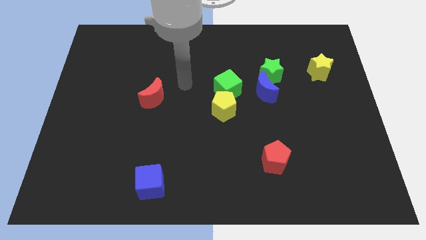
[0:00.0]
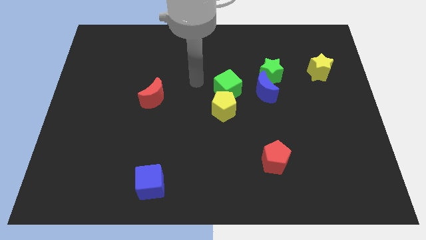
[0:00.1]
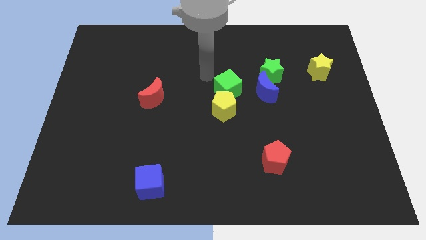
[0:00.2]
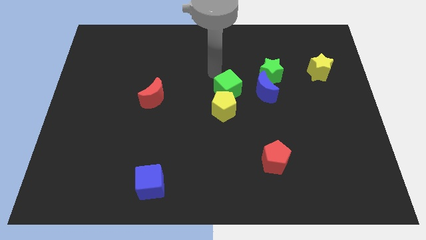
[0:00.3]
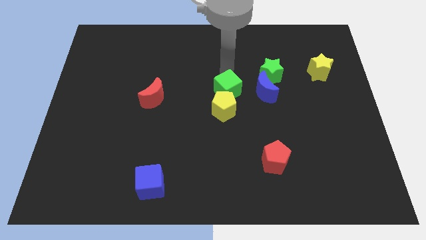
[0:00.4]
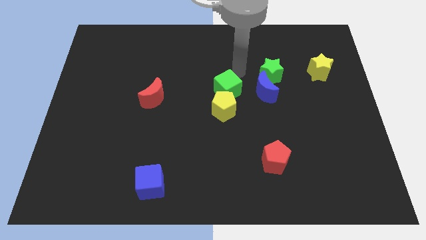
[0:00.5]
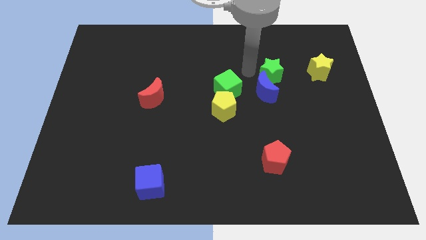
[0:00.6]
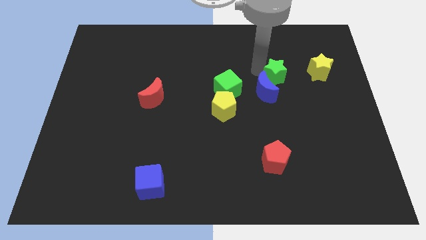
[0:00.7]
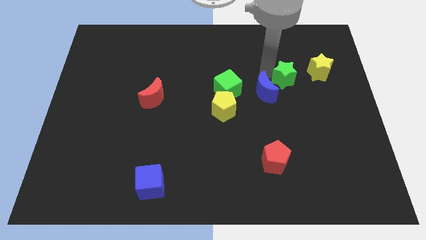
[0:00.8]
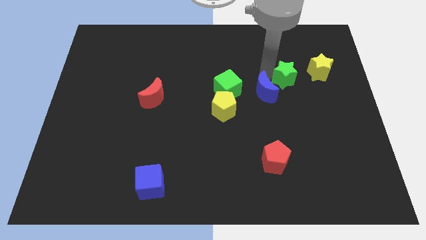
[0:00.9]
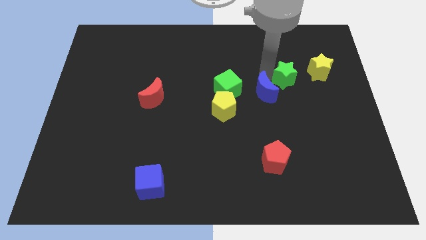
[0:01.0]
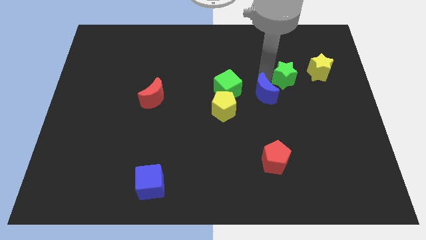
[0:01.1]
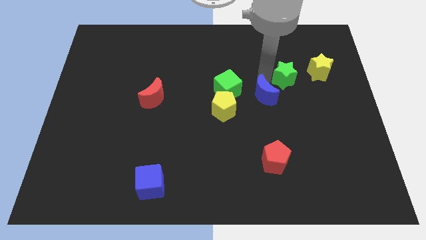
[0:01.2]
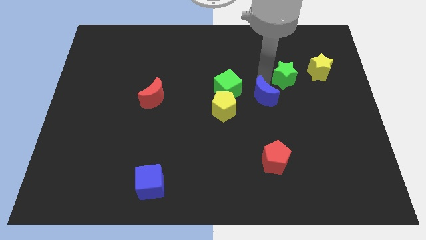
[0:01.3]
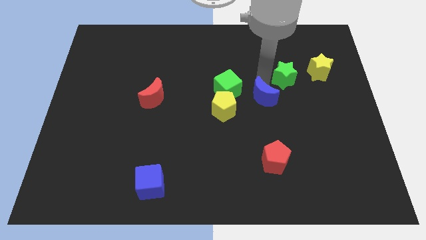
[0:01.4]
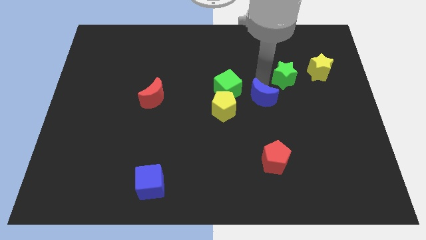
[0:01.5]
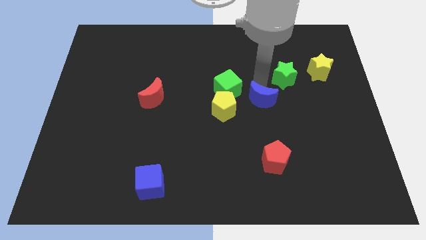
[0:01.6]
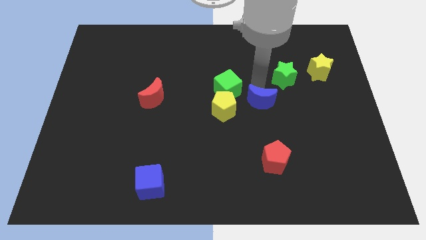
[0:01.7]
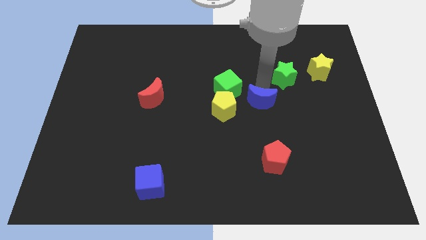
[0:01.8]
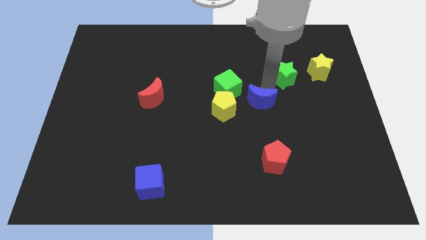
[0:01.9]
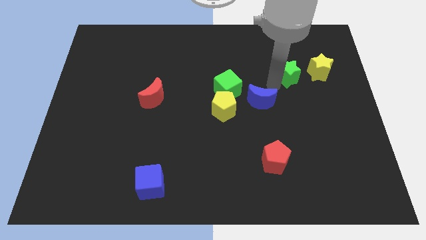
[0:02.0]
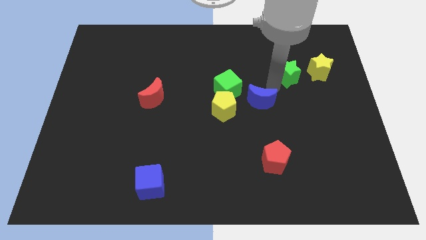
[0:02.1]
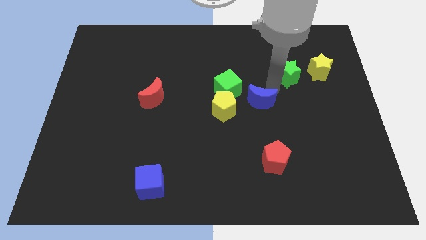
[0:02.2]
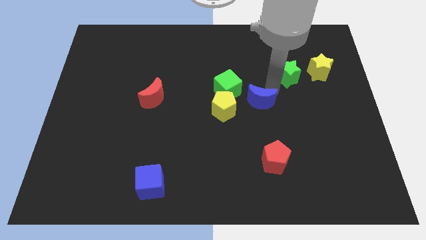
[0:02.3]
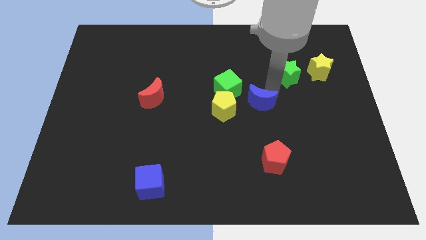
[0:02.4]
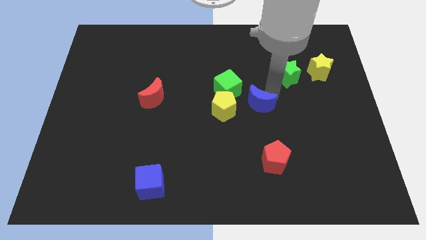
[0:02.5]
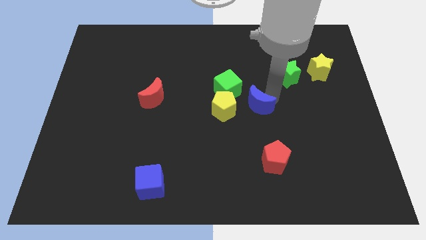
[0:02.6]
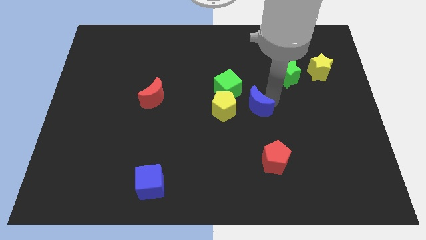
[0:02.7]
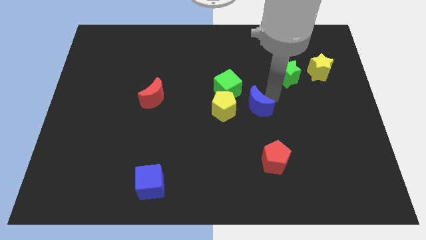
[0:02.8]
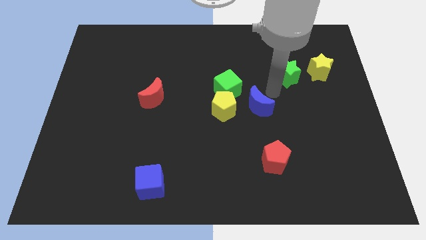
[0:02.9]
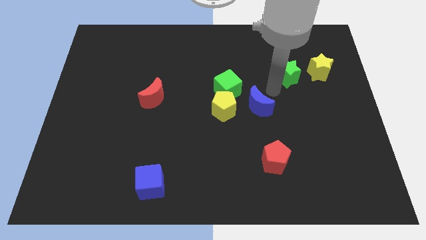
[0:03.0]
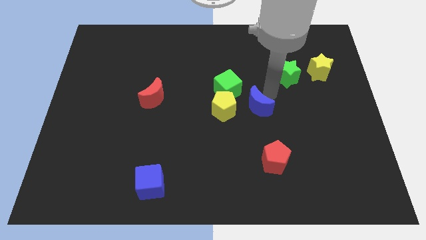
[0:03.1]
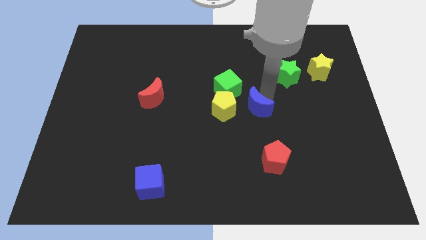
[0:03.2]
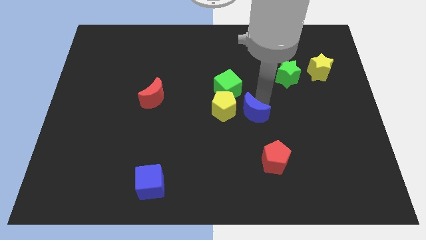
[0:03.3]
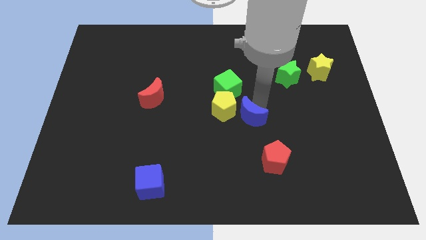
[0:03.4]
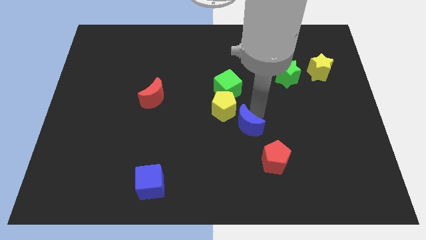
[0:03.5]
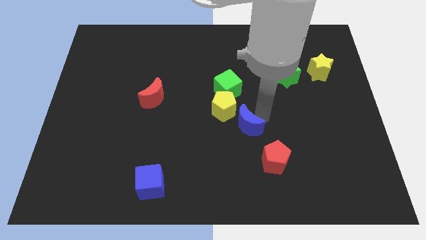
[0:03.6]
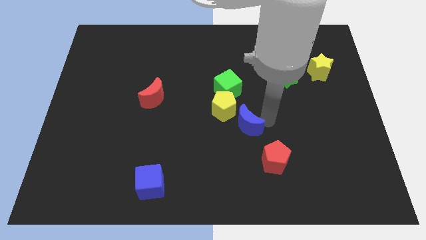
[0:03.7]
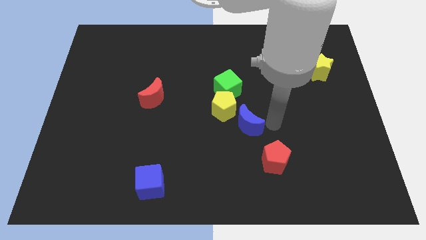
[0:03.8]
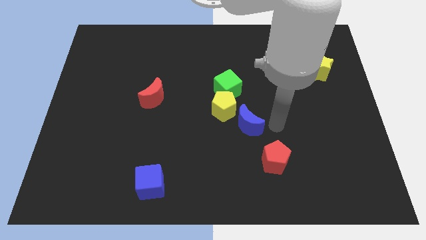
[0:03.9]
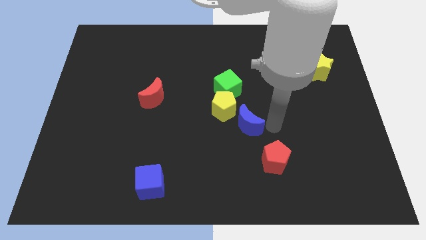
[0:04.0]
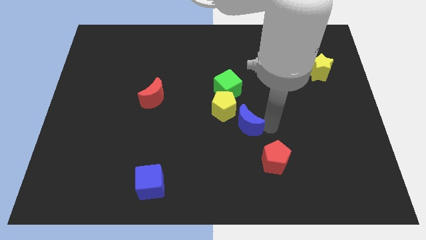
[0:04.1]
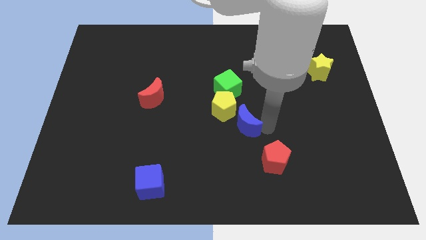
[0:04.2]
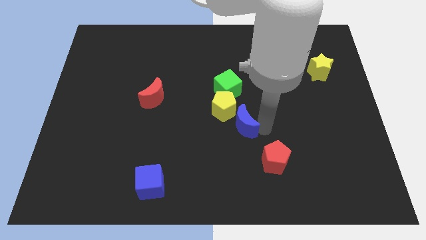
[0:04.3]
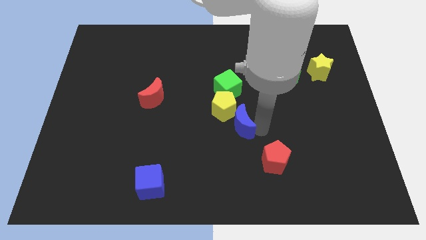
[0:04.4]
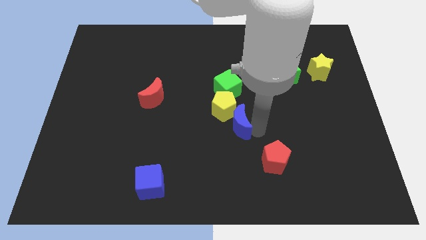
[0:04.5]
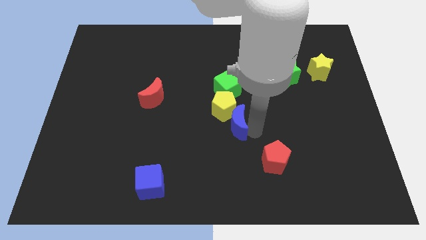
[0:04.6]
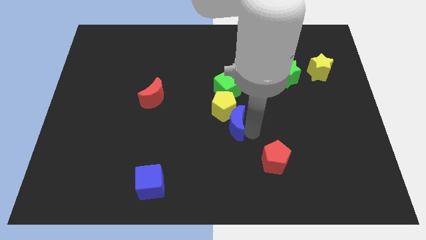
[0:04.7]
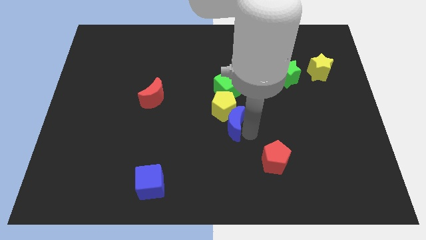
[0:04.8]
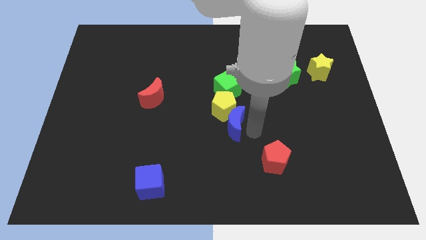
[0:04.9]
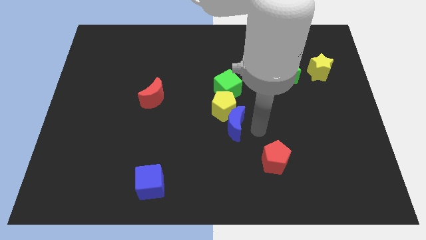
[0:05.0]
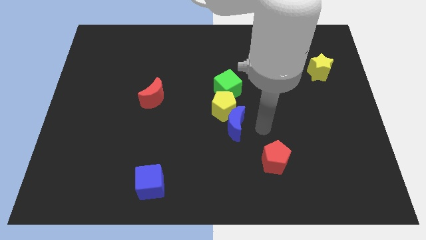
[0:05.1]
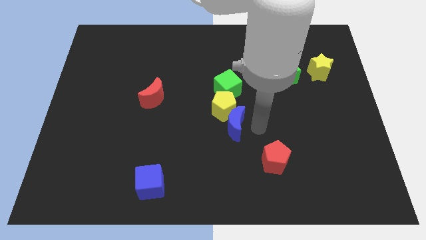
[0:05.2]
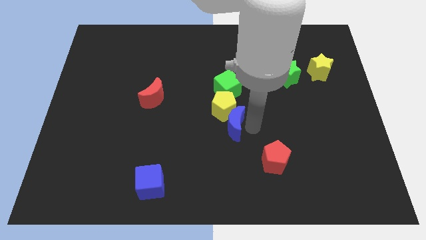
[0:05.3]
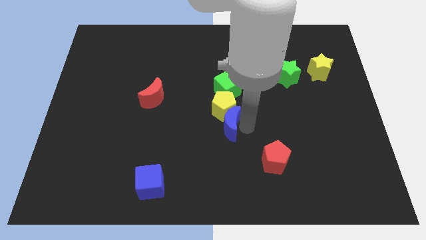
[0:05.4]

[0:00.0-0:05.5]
push the blue moon diagonally down and to the left of the yellow pentagon

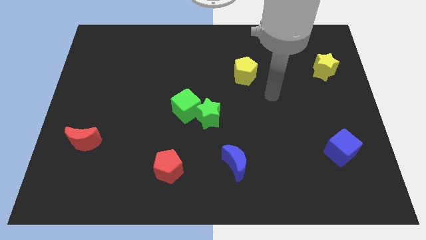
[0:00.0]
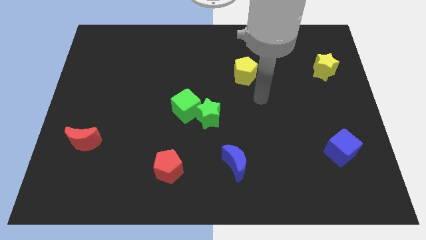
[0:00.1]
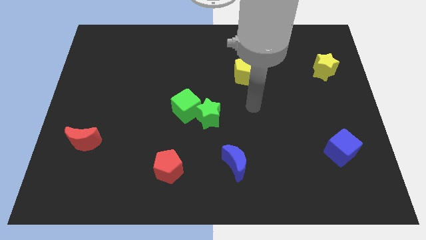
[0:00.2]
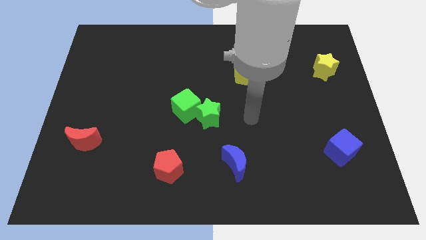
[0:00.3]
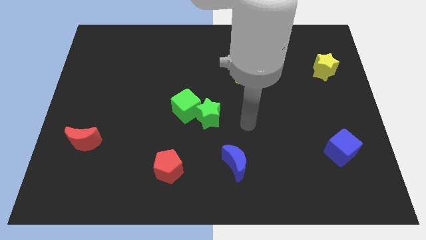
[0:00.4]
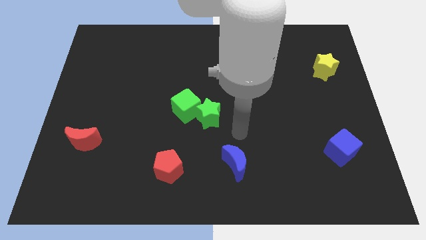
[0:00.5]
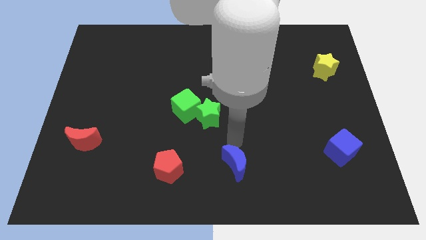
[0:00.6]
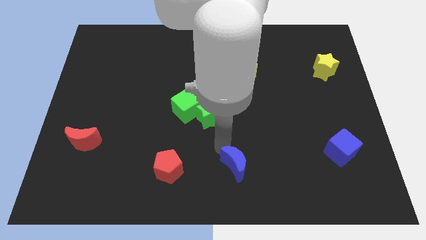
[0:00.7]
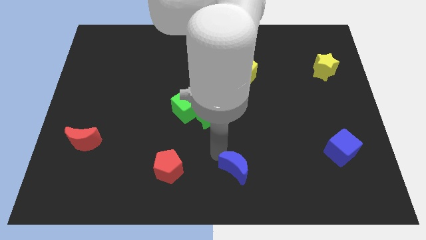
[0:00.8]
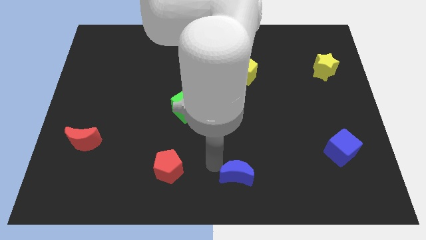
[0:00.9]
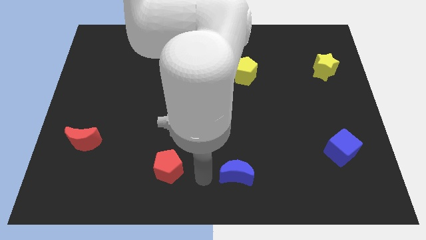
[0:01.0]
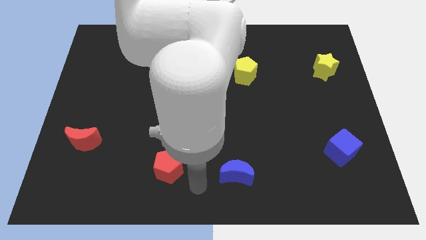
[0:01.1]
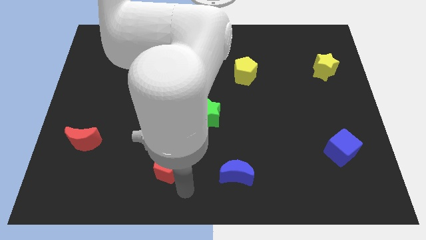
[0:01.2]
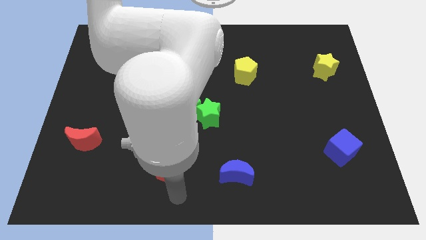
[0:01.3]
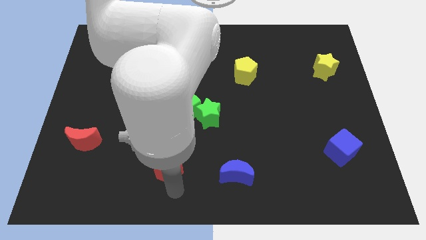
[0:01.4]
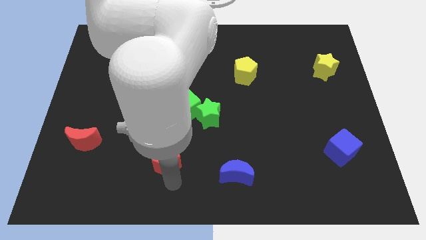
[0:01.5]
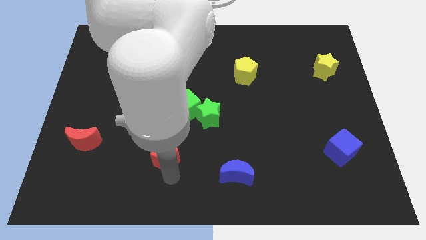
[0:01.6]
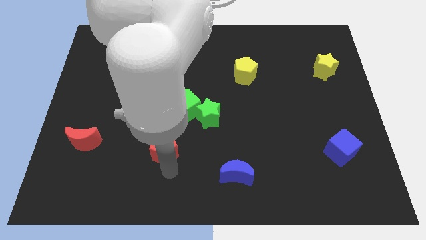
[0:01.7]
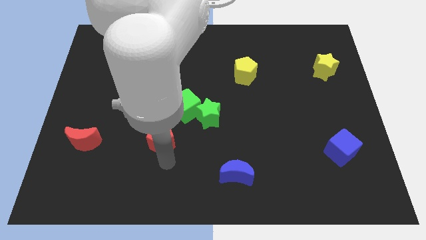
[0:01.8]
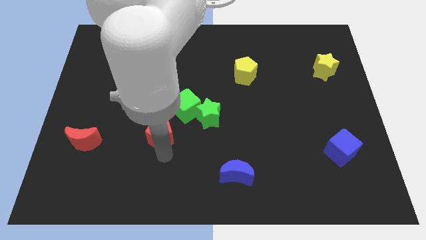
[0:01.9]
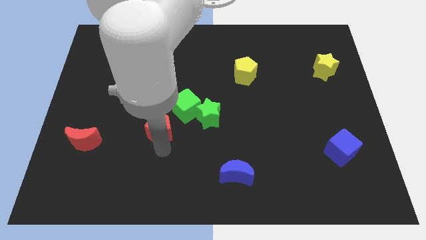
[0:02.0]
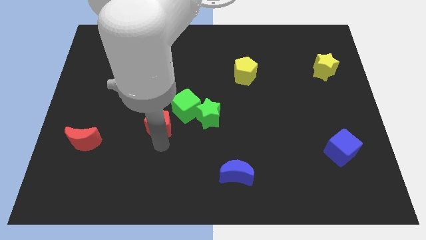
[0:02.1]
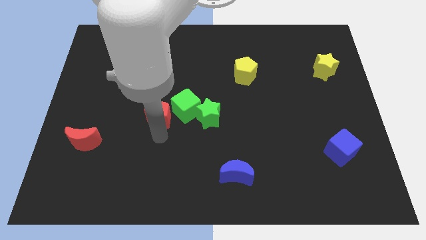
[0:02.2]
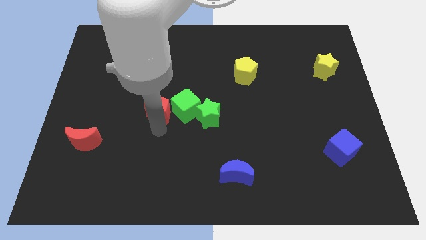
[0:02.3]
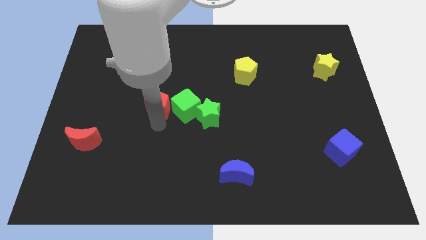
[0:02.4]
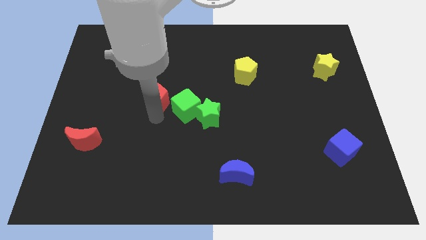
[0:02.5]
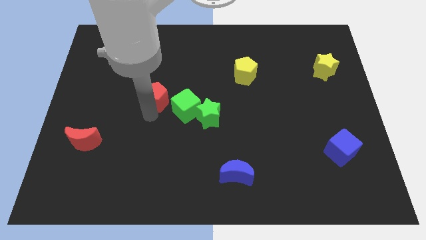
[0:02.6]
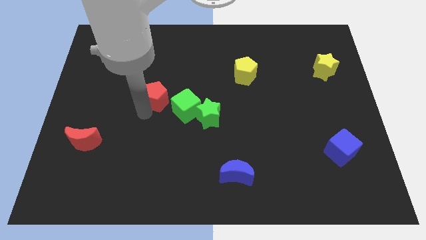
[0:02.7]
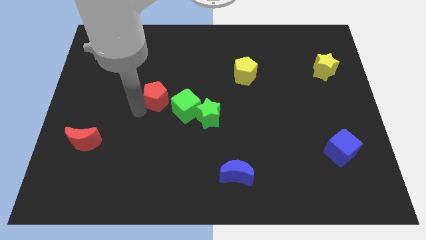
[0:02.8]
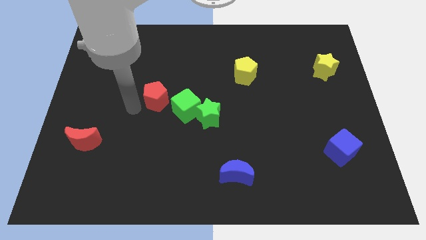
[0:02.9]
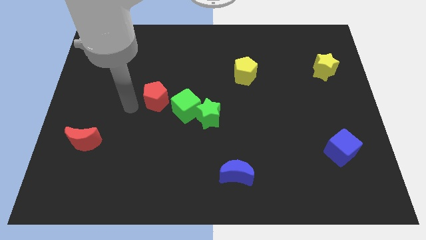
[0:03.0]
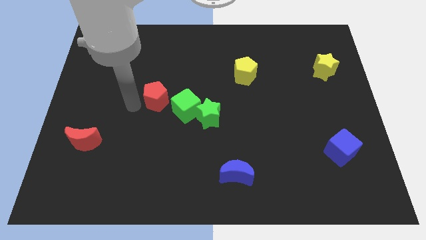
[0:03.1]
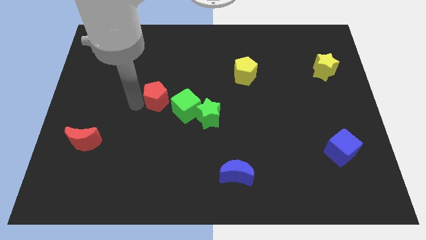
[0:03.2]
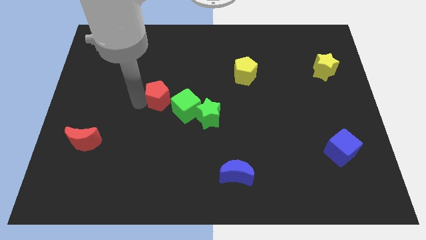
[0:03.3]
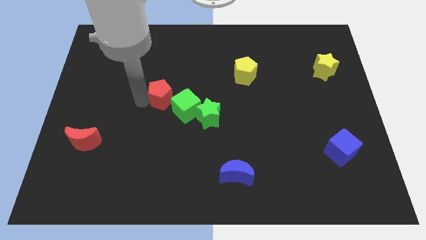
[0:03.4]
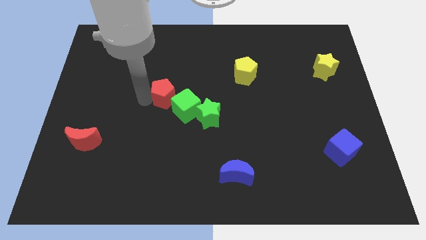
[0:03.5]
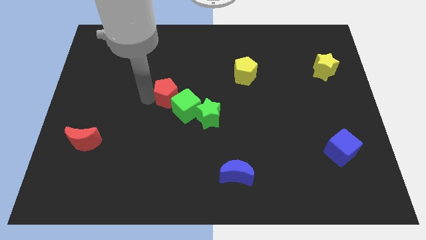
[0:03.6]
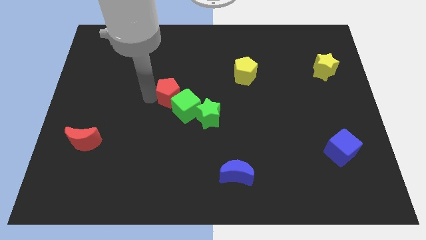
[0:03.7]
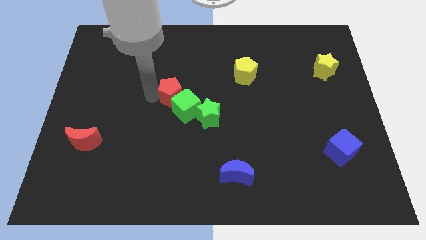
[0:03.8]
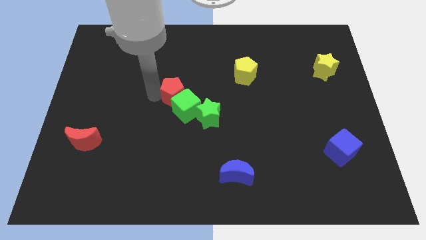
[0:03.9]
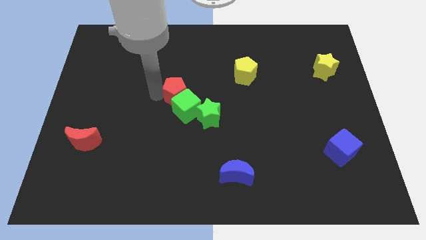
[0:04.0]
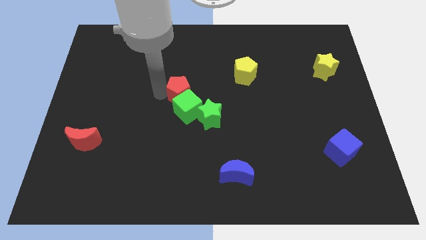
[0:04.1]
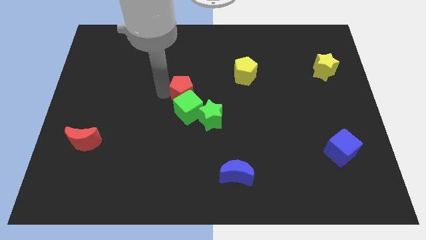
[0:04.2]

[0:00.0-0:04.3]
put the red pentagon to the top right side of the green cube
